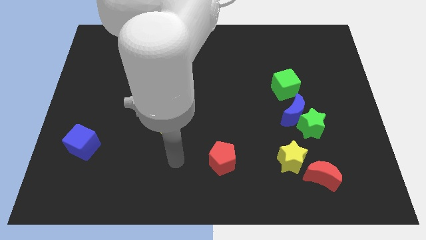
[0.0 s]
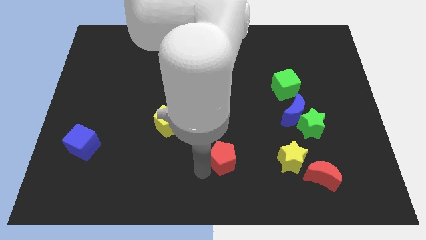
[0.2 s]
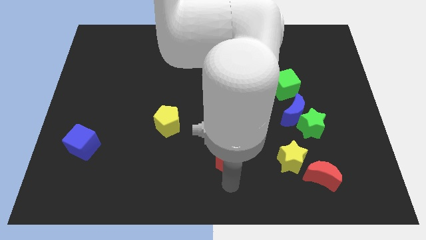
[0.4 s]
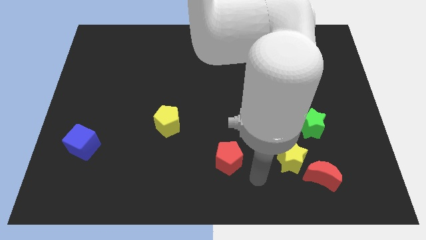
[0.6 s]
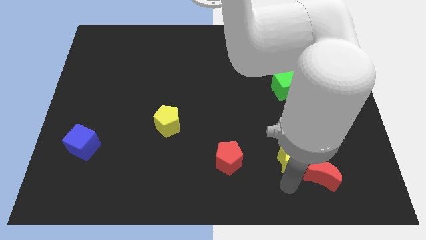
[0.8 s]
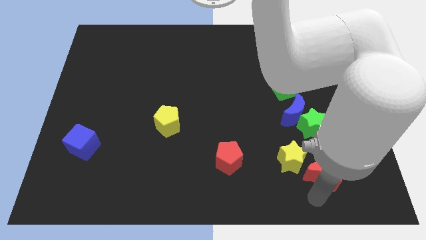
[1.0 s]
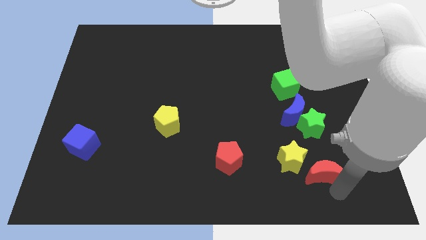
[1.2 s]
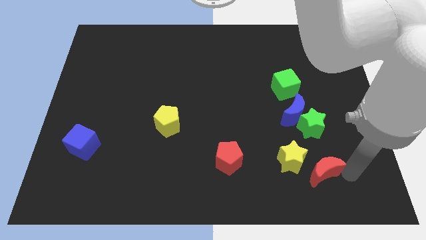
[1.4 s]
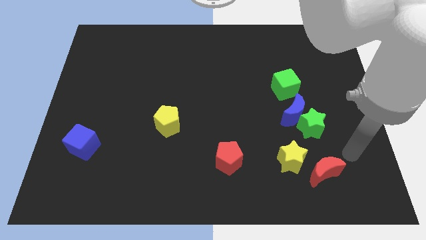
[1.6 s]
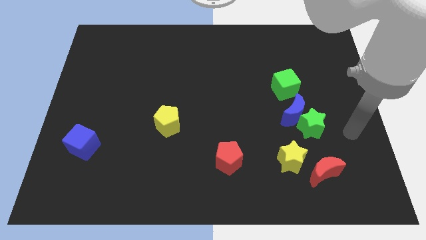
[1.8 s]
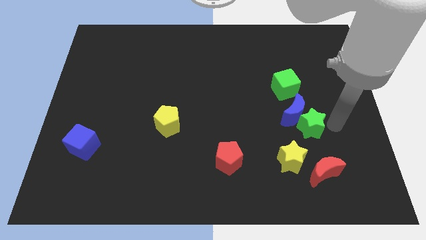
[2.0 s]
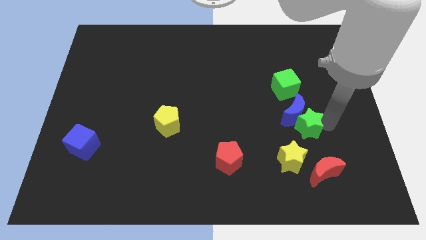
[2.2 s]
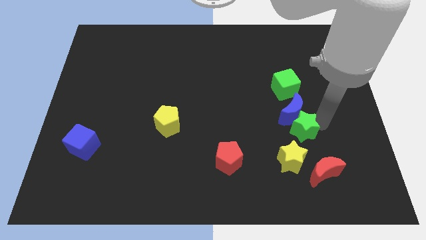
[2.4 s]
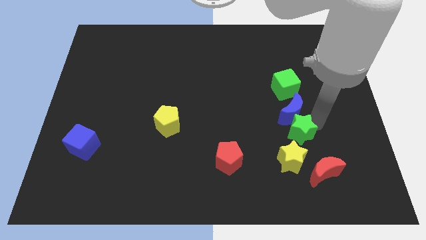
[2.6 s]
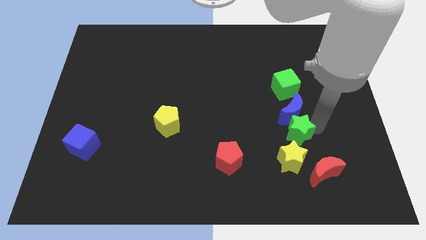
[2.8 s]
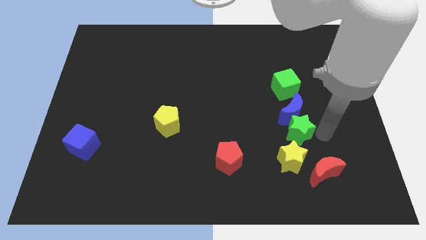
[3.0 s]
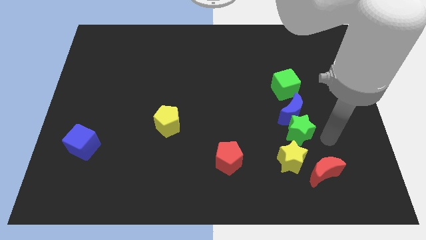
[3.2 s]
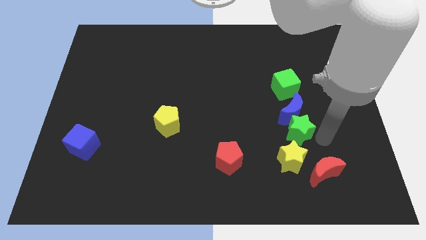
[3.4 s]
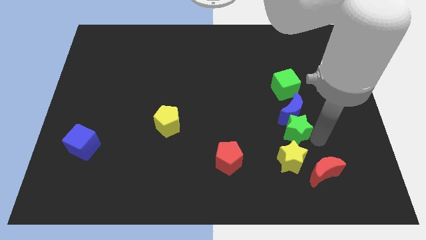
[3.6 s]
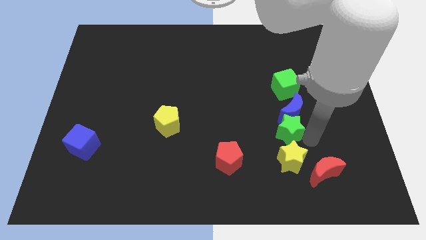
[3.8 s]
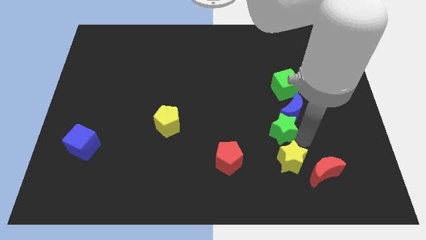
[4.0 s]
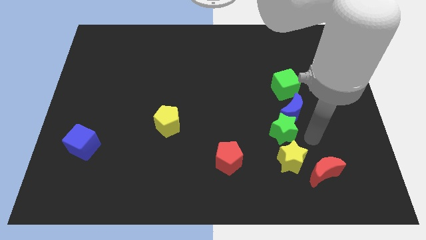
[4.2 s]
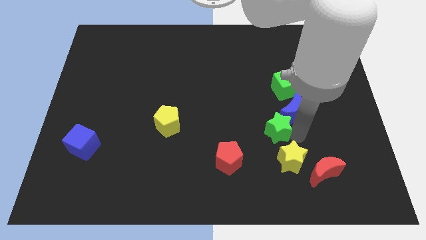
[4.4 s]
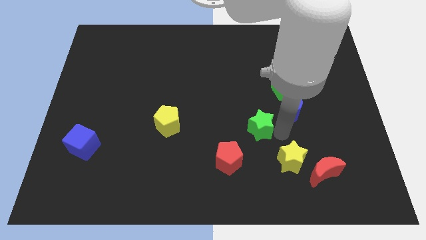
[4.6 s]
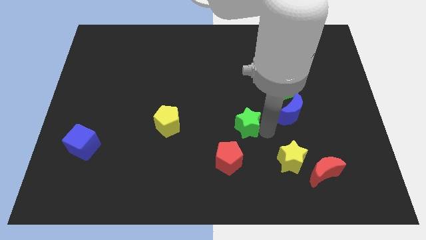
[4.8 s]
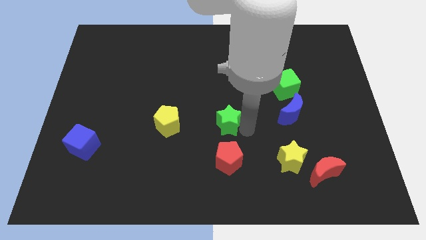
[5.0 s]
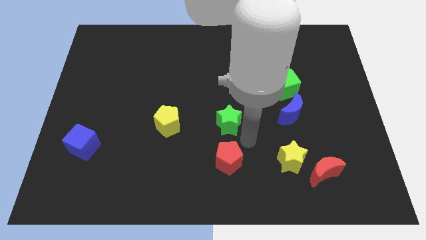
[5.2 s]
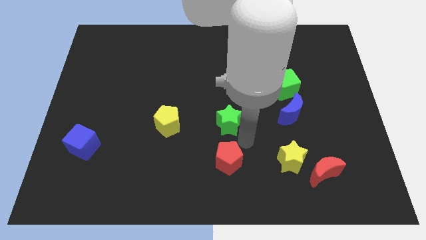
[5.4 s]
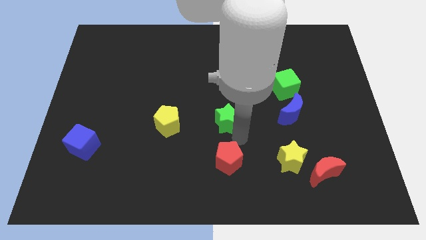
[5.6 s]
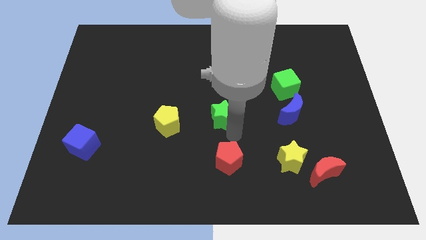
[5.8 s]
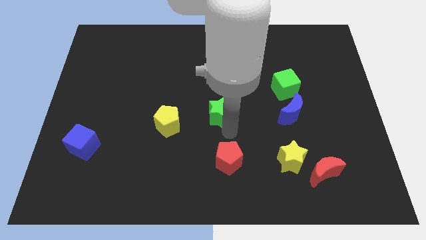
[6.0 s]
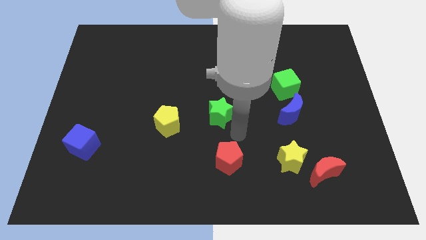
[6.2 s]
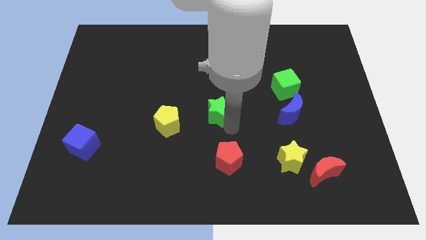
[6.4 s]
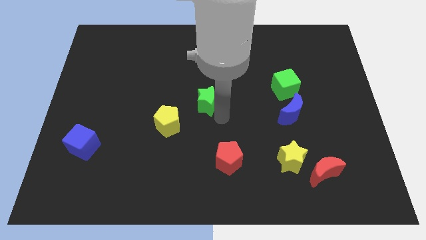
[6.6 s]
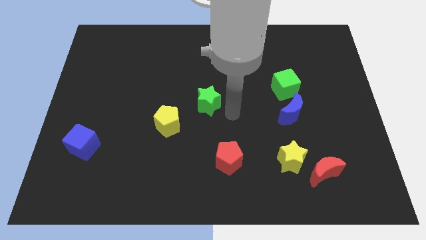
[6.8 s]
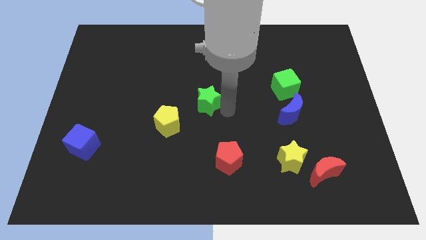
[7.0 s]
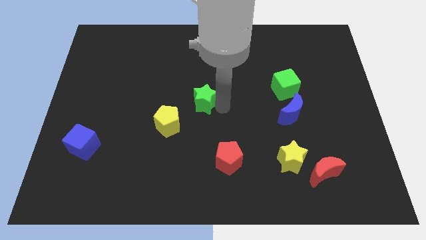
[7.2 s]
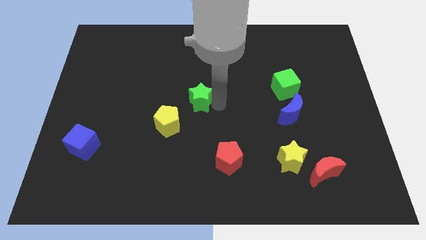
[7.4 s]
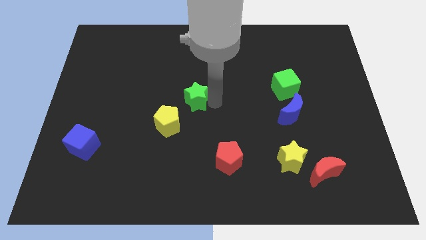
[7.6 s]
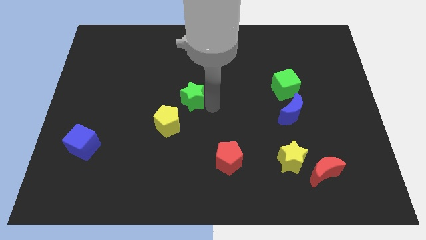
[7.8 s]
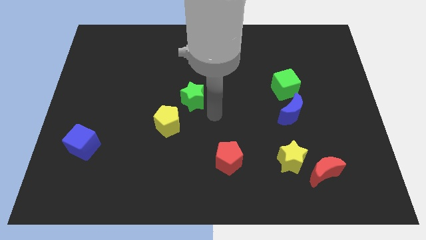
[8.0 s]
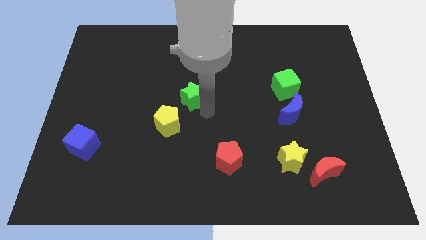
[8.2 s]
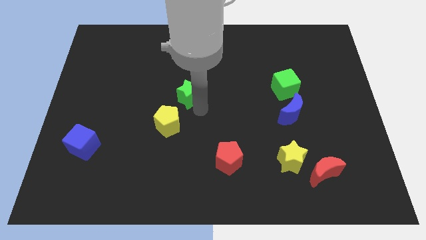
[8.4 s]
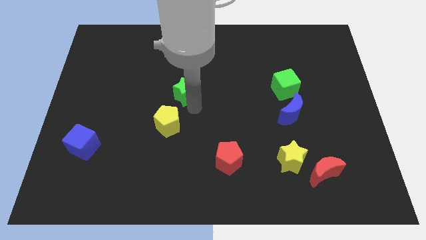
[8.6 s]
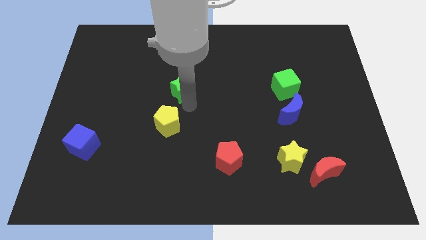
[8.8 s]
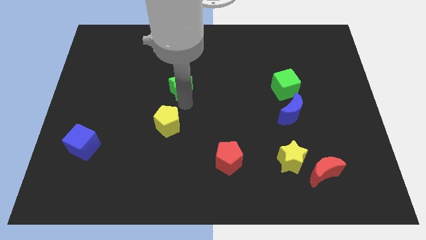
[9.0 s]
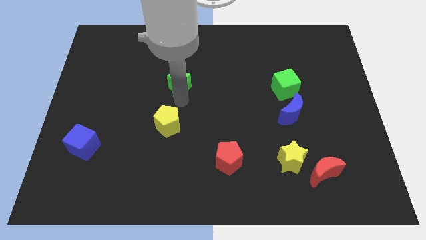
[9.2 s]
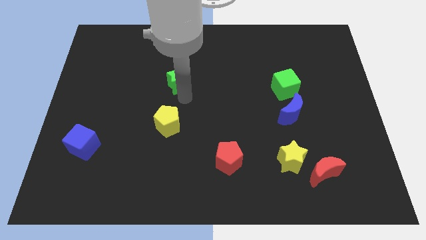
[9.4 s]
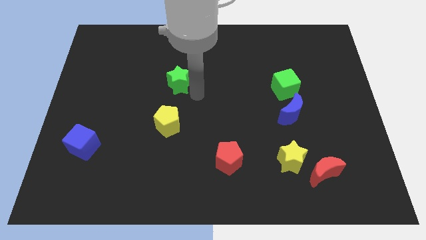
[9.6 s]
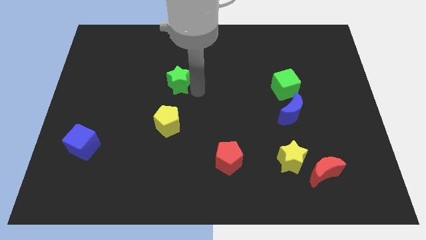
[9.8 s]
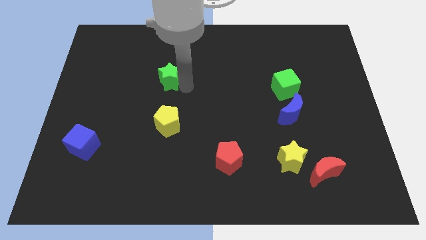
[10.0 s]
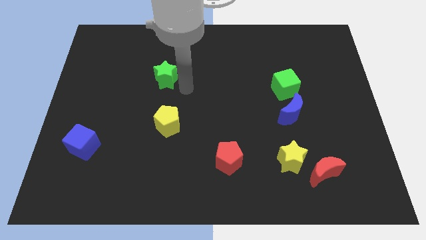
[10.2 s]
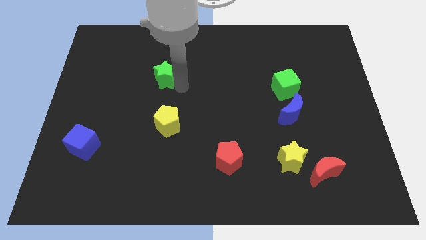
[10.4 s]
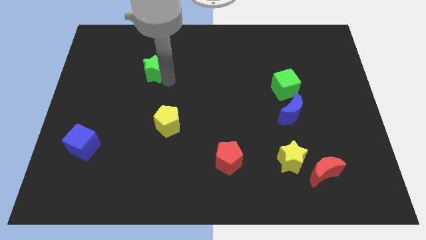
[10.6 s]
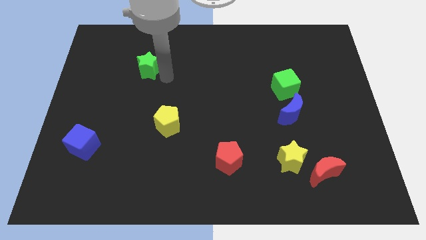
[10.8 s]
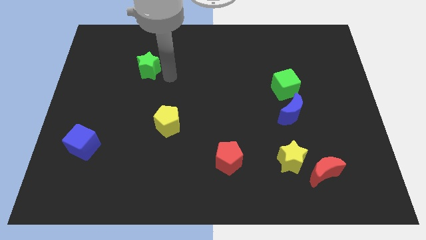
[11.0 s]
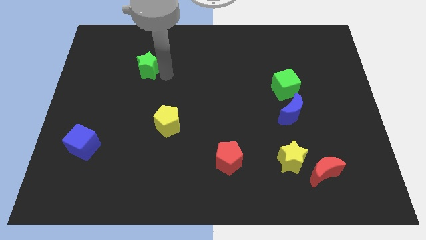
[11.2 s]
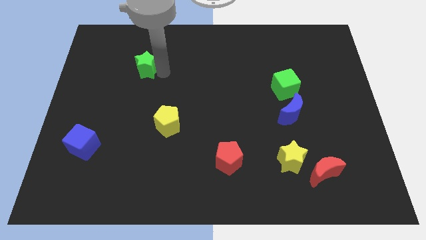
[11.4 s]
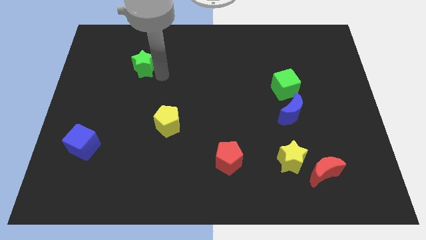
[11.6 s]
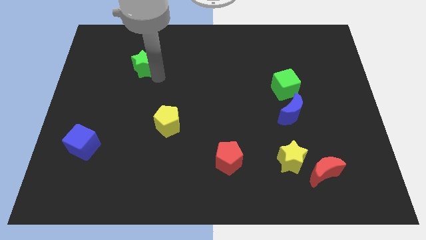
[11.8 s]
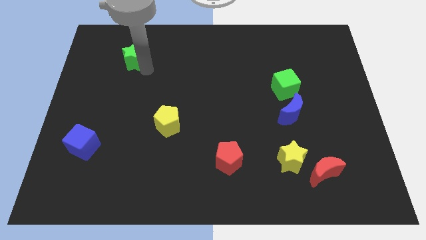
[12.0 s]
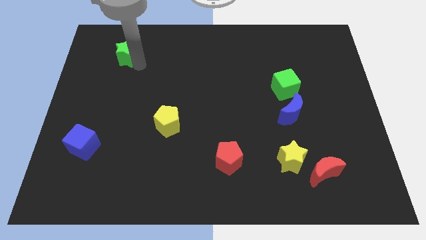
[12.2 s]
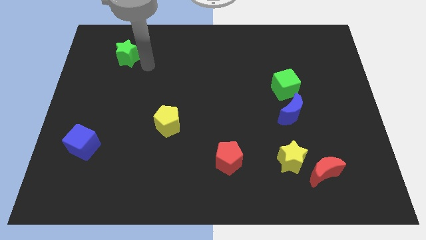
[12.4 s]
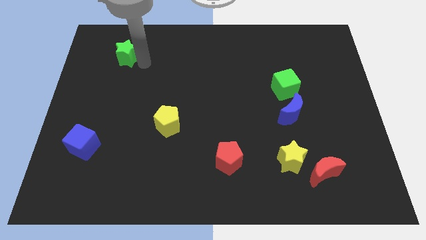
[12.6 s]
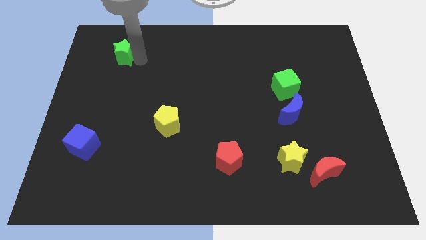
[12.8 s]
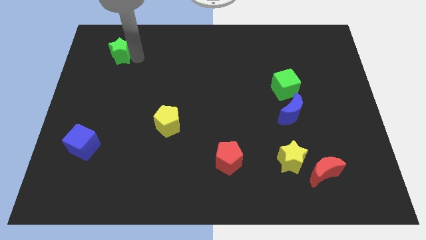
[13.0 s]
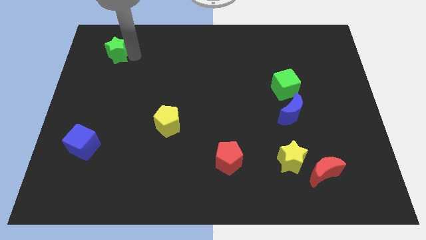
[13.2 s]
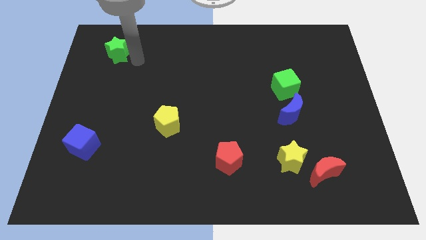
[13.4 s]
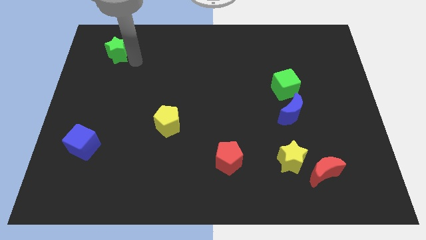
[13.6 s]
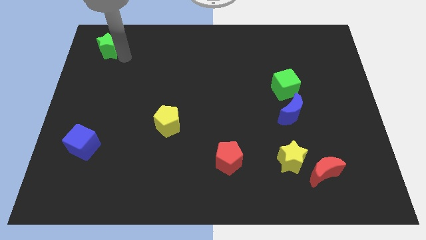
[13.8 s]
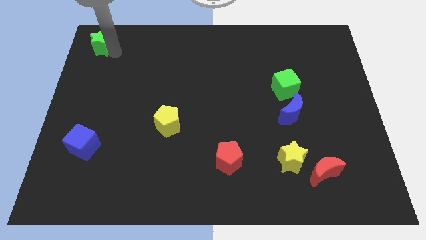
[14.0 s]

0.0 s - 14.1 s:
put the green star to the top left
